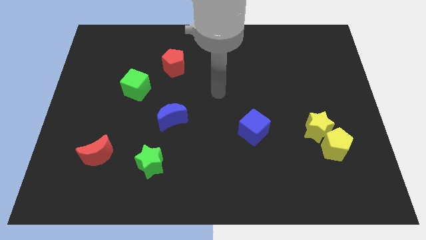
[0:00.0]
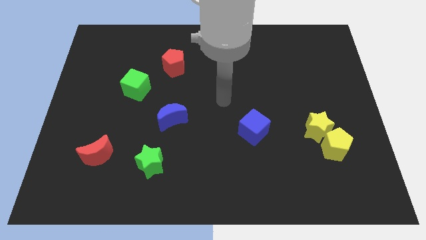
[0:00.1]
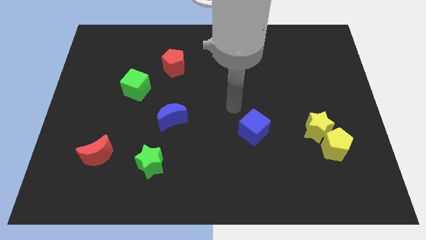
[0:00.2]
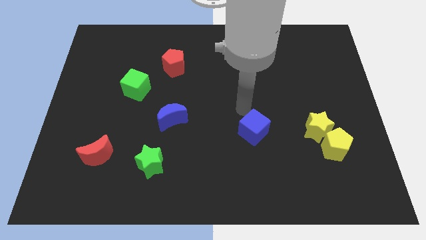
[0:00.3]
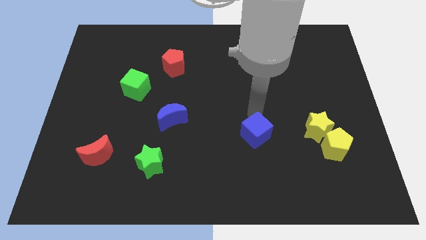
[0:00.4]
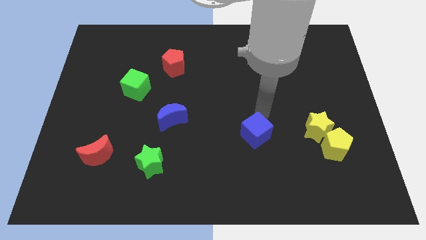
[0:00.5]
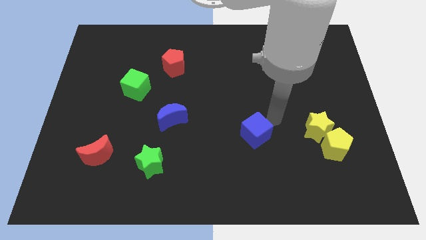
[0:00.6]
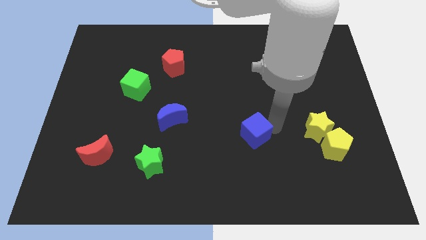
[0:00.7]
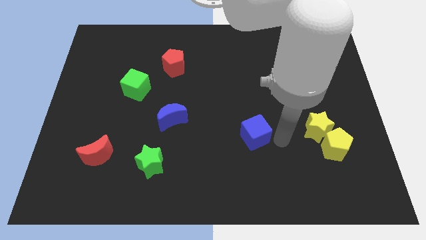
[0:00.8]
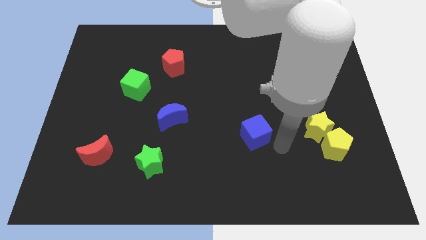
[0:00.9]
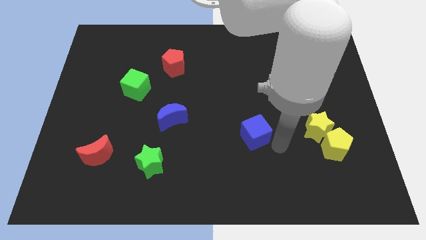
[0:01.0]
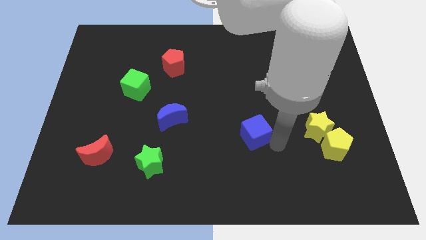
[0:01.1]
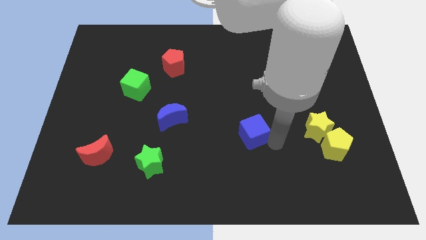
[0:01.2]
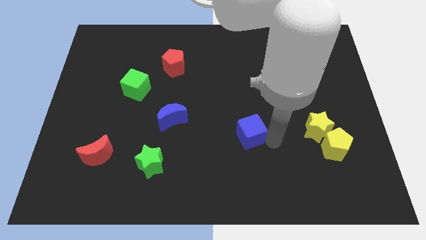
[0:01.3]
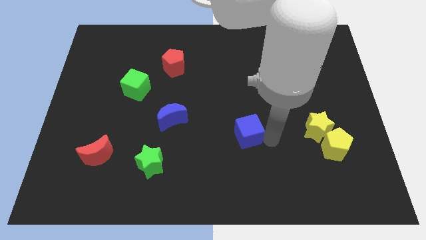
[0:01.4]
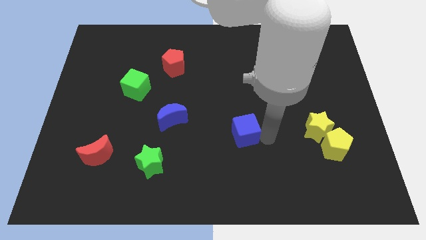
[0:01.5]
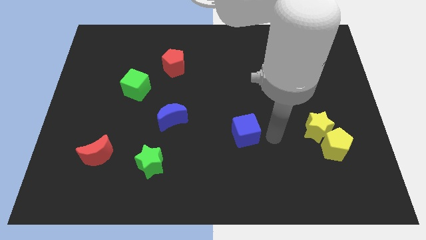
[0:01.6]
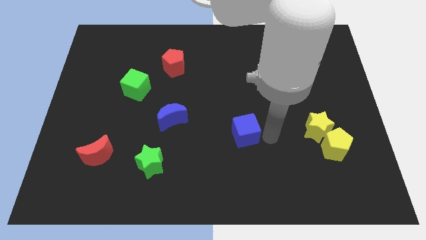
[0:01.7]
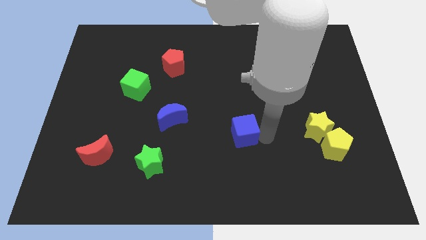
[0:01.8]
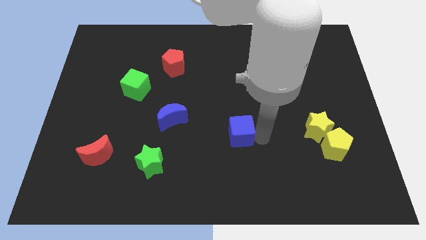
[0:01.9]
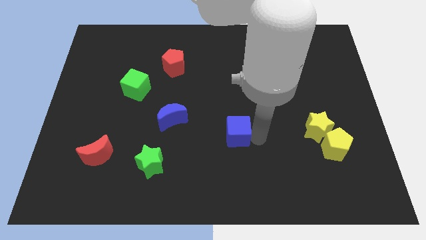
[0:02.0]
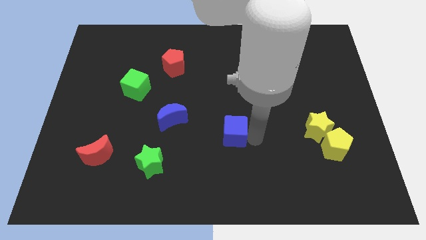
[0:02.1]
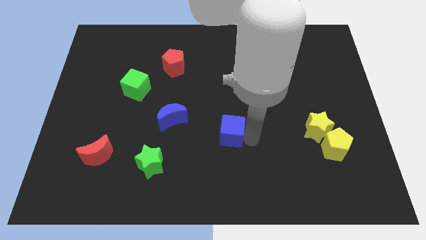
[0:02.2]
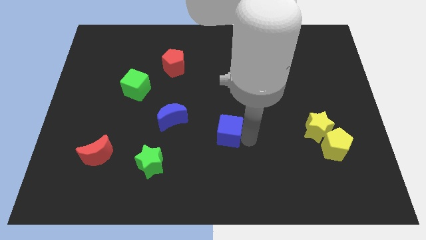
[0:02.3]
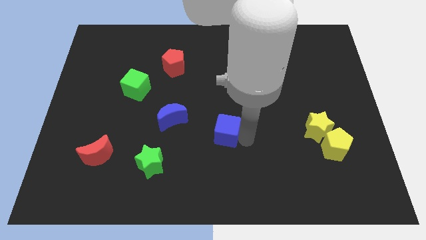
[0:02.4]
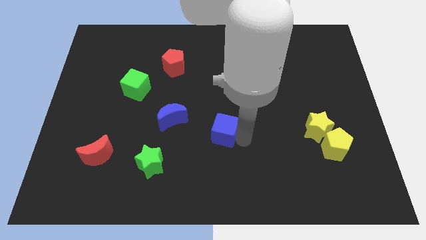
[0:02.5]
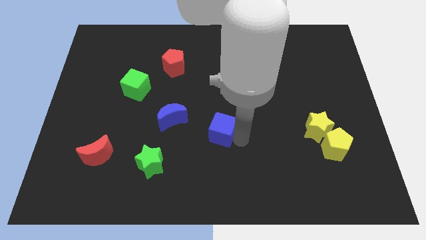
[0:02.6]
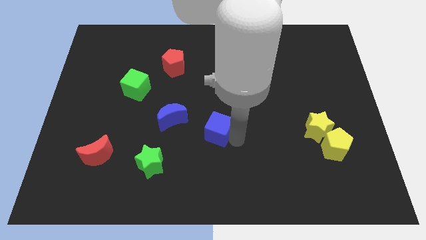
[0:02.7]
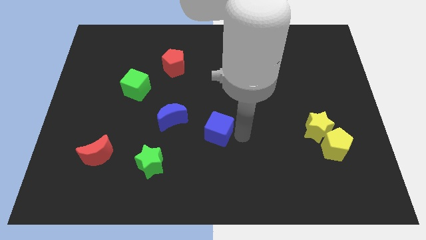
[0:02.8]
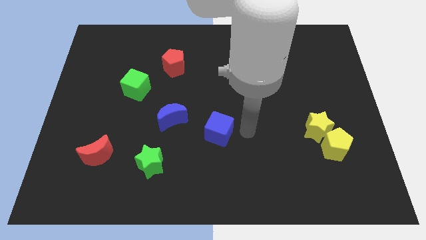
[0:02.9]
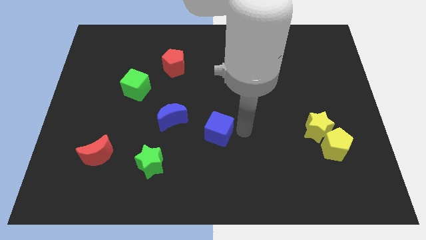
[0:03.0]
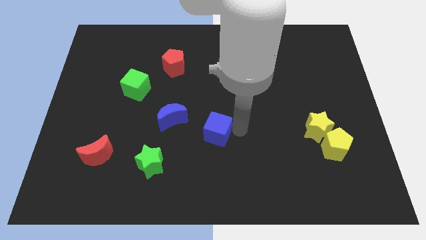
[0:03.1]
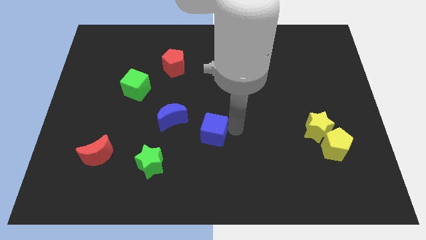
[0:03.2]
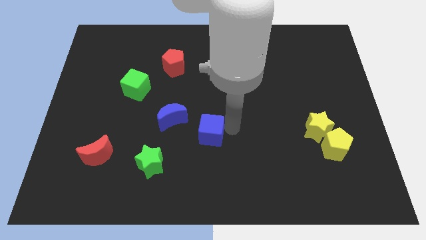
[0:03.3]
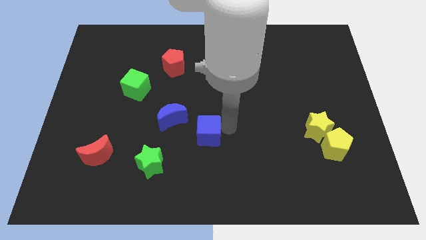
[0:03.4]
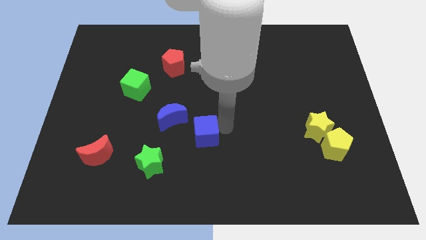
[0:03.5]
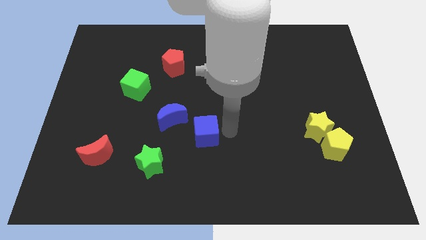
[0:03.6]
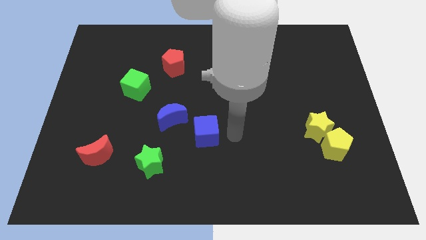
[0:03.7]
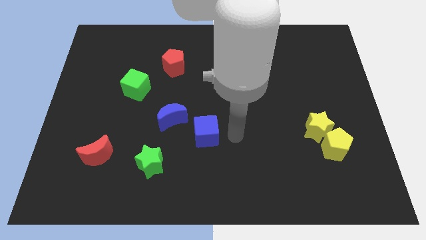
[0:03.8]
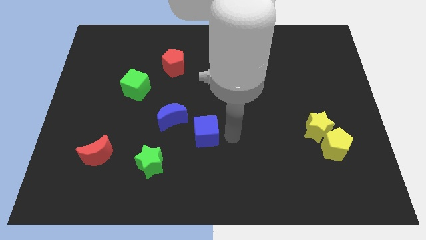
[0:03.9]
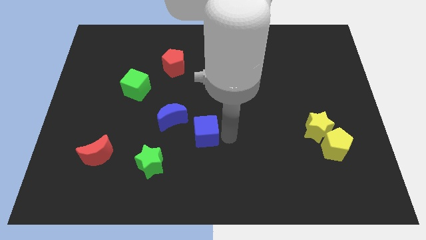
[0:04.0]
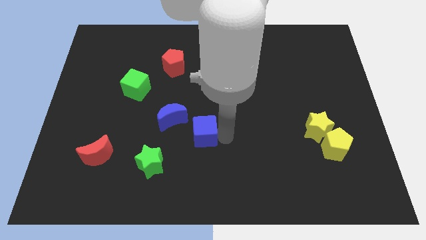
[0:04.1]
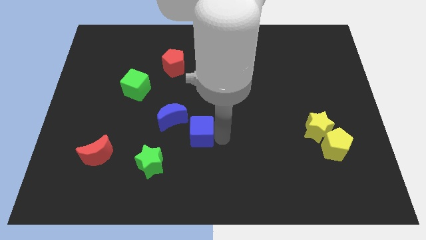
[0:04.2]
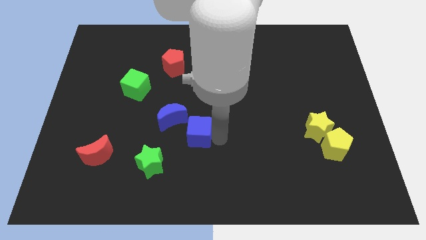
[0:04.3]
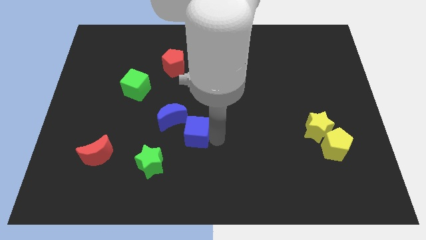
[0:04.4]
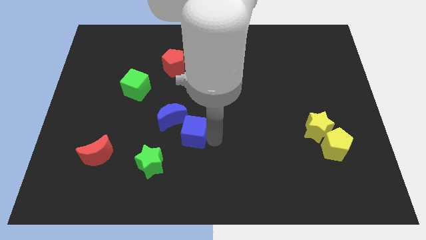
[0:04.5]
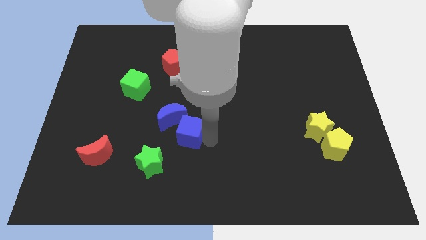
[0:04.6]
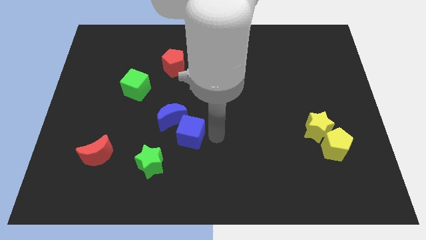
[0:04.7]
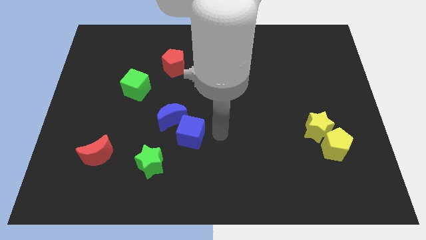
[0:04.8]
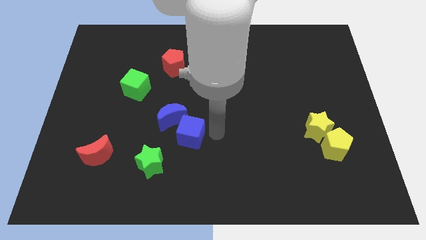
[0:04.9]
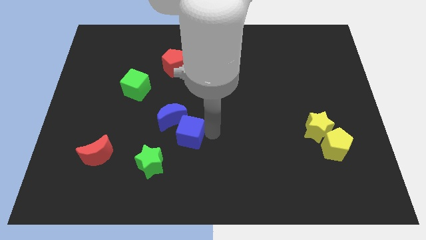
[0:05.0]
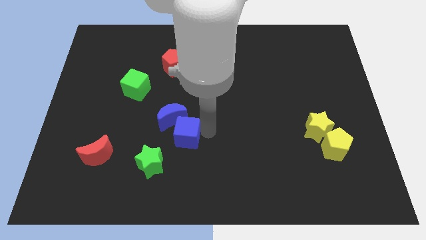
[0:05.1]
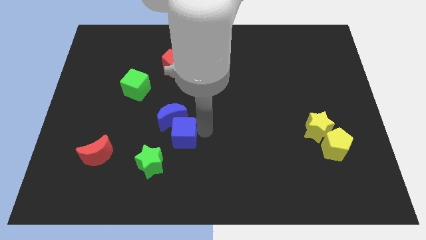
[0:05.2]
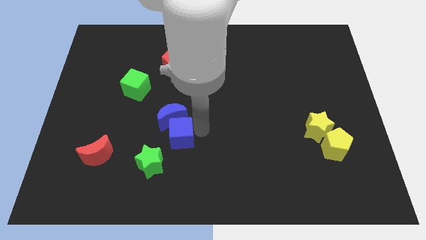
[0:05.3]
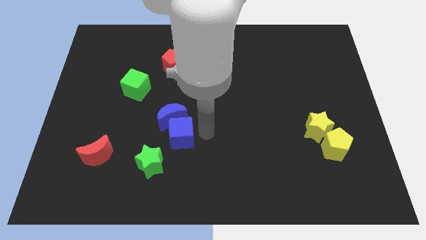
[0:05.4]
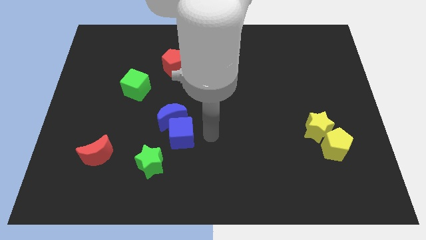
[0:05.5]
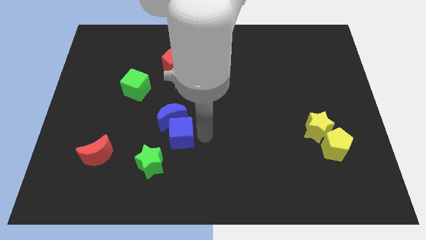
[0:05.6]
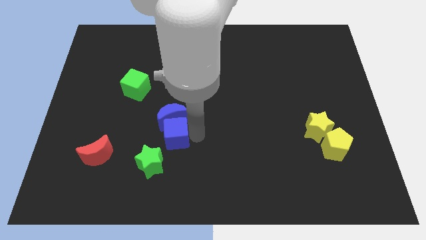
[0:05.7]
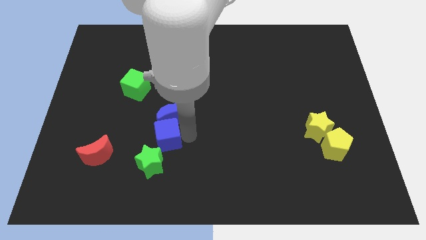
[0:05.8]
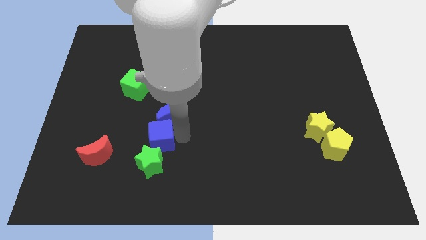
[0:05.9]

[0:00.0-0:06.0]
slide the blue cube left

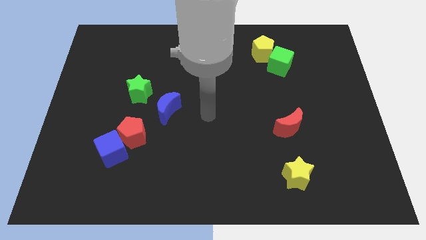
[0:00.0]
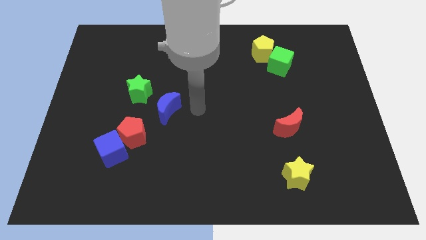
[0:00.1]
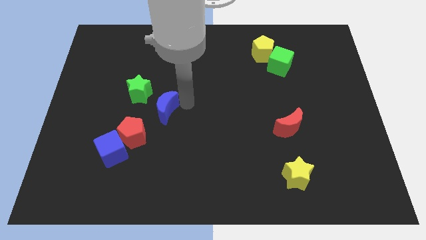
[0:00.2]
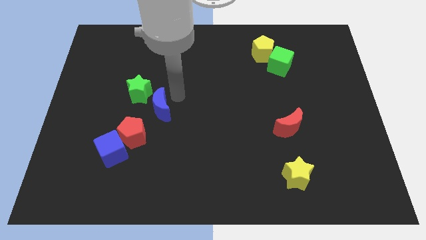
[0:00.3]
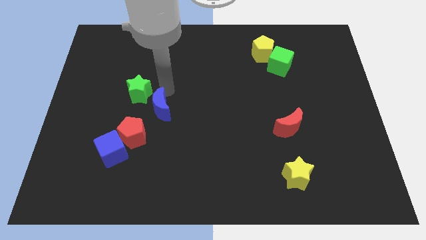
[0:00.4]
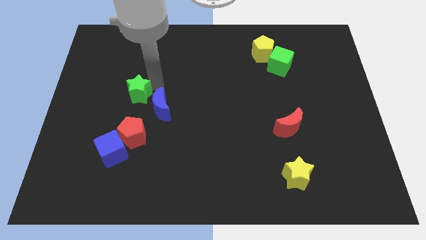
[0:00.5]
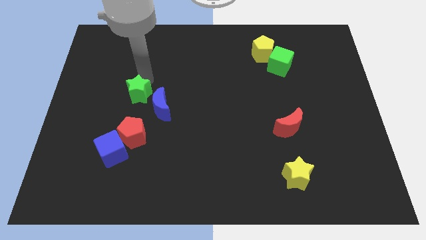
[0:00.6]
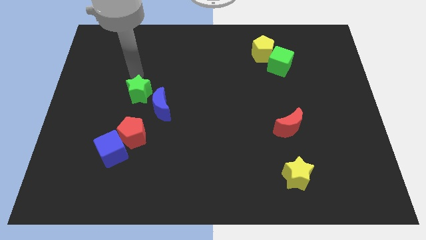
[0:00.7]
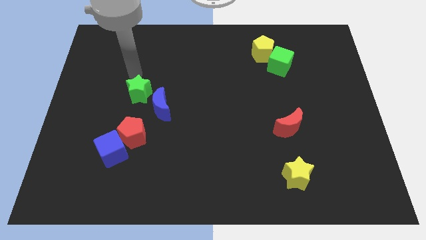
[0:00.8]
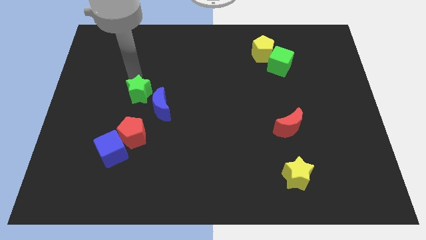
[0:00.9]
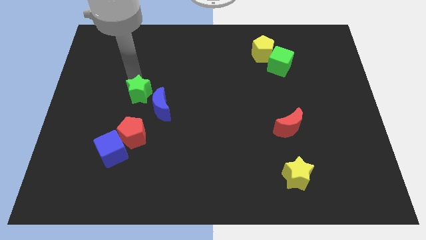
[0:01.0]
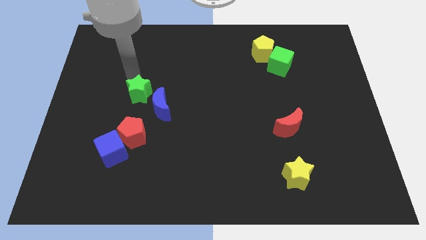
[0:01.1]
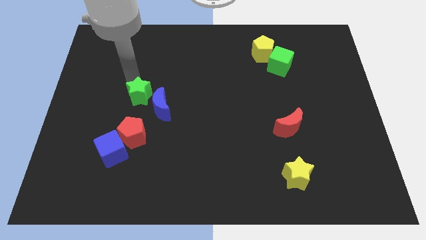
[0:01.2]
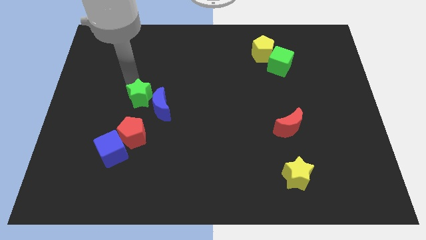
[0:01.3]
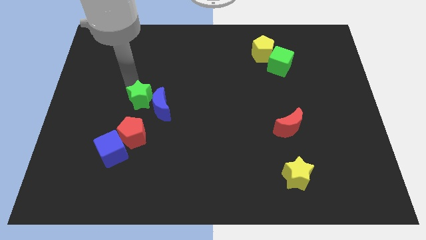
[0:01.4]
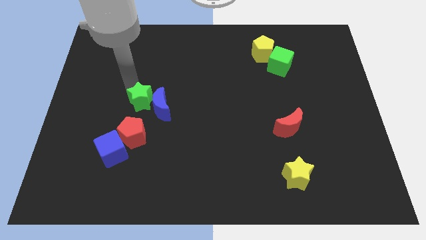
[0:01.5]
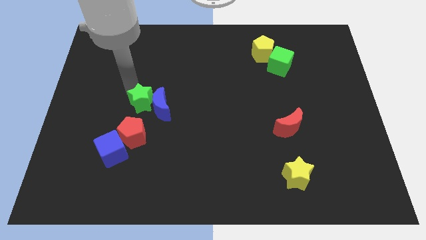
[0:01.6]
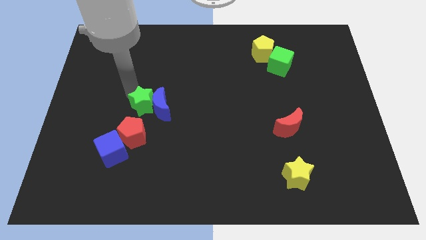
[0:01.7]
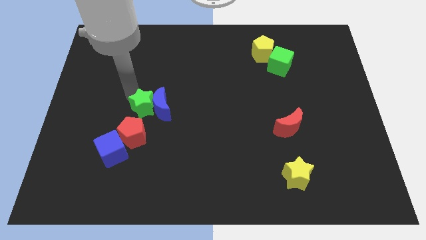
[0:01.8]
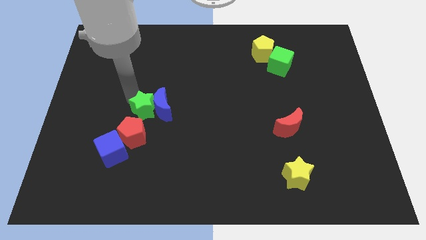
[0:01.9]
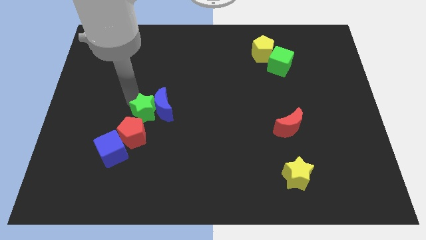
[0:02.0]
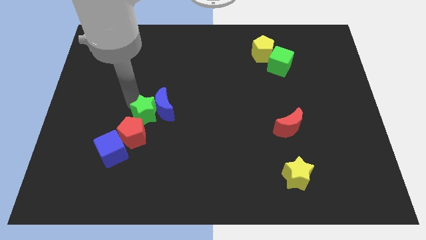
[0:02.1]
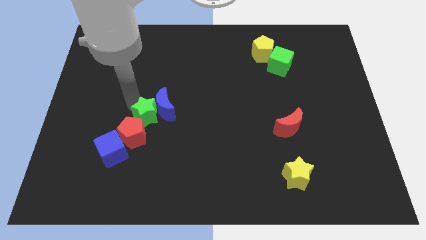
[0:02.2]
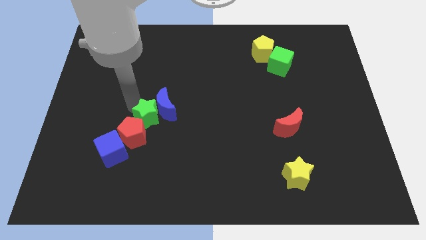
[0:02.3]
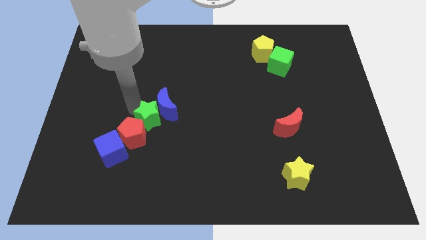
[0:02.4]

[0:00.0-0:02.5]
move the green star a bit down and then right
